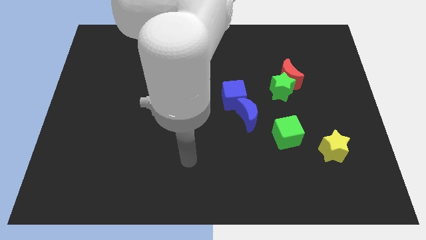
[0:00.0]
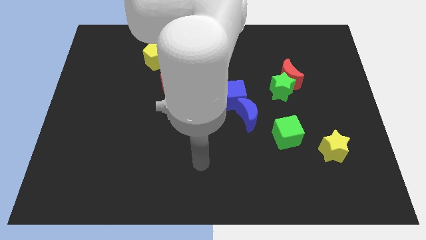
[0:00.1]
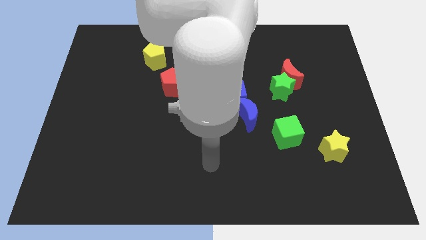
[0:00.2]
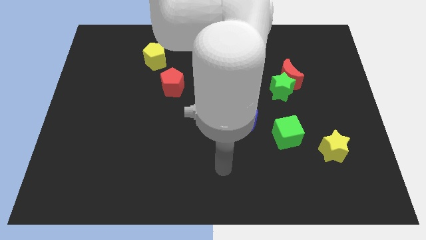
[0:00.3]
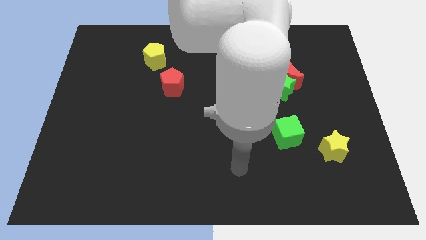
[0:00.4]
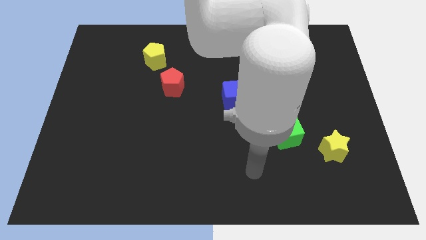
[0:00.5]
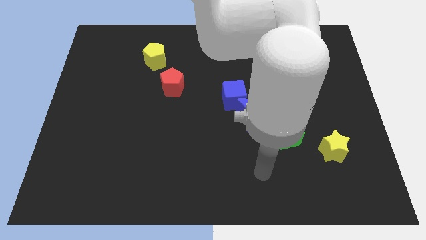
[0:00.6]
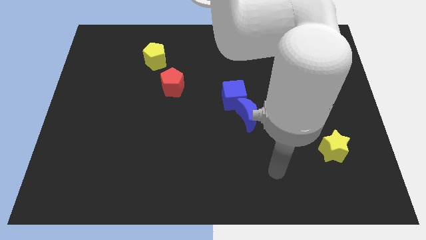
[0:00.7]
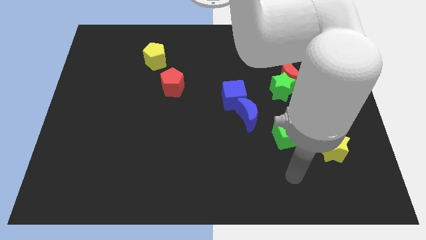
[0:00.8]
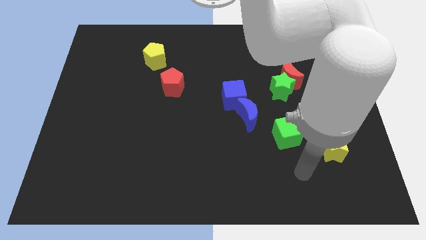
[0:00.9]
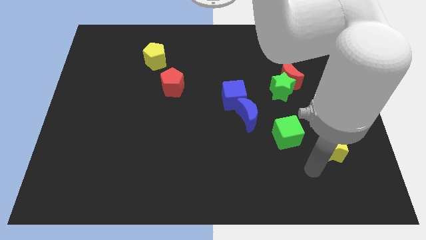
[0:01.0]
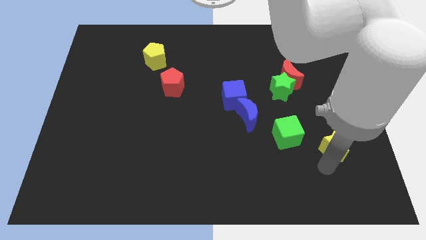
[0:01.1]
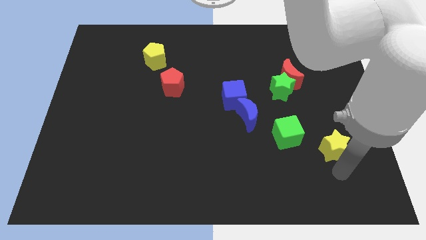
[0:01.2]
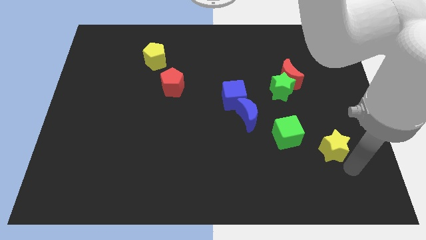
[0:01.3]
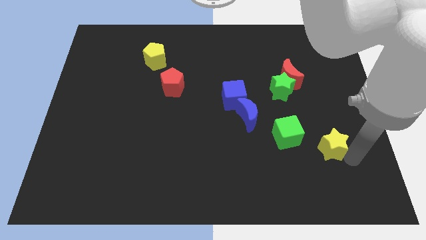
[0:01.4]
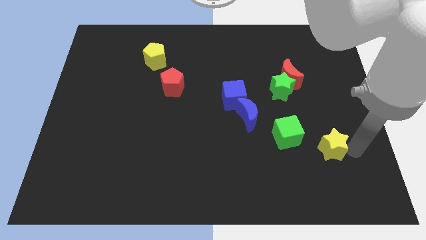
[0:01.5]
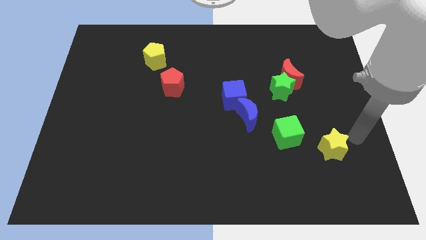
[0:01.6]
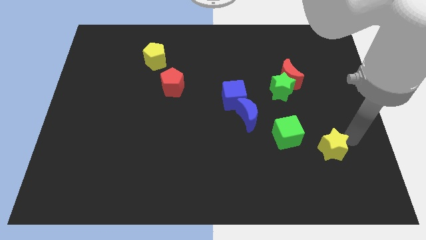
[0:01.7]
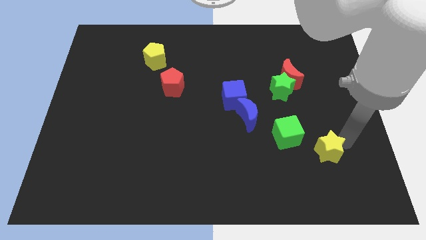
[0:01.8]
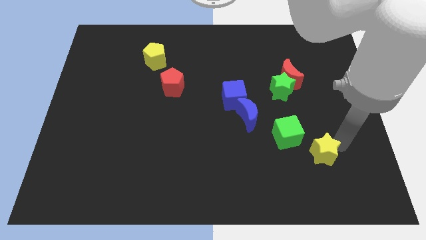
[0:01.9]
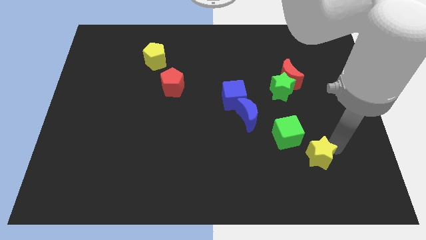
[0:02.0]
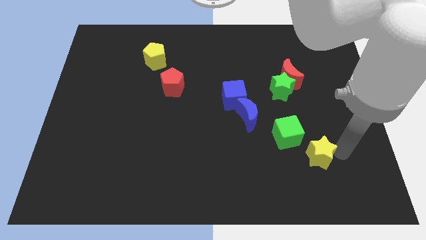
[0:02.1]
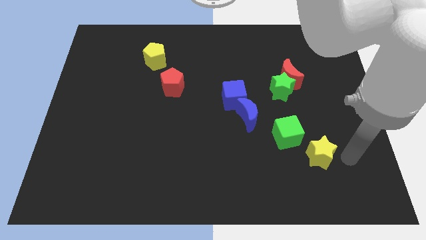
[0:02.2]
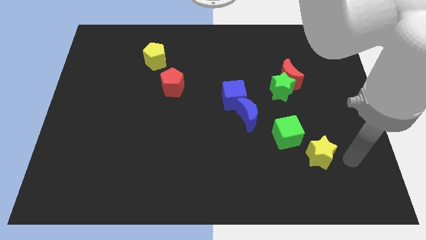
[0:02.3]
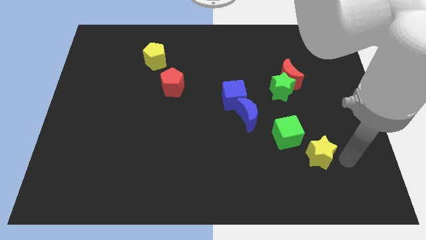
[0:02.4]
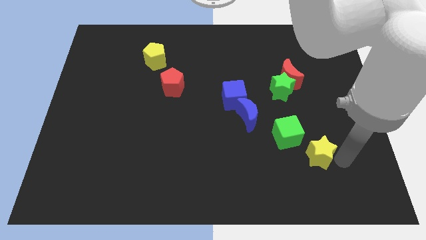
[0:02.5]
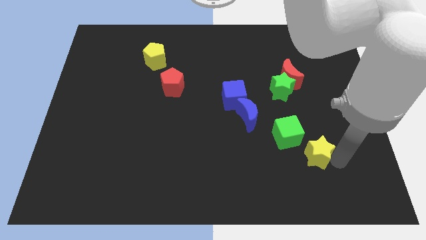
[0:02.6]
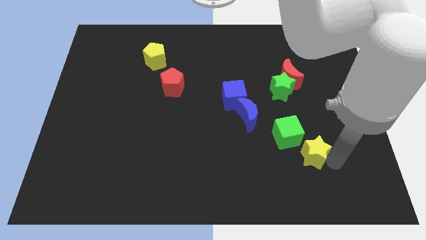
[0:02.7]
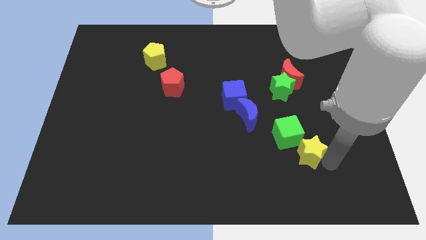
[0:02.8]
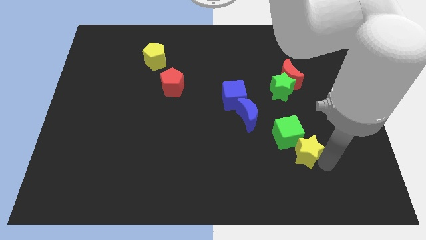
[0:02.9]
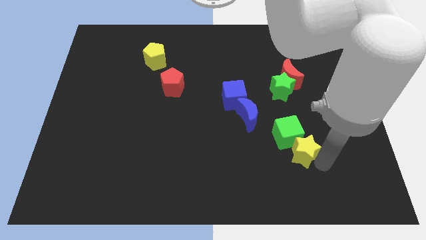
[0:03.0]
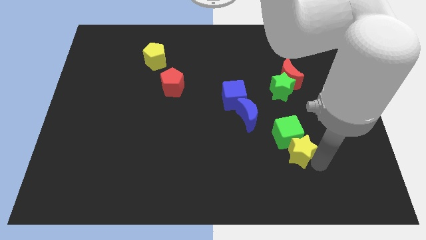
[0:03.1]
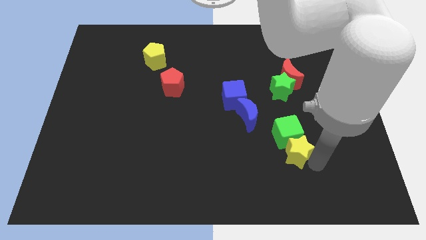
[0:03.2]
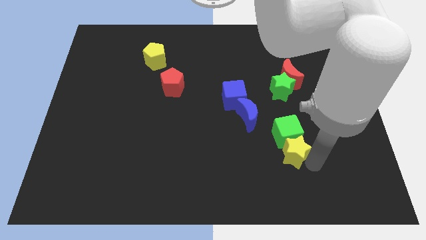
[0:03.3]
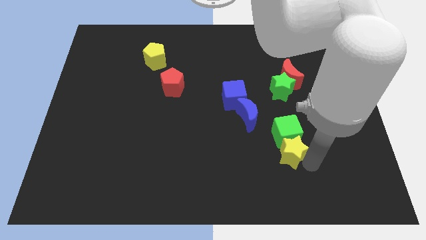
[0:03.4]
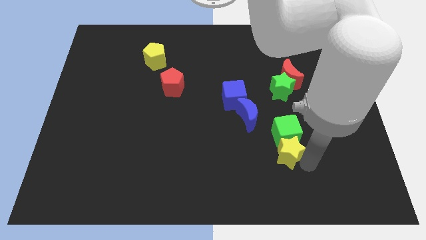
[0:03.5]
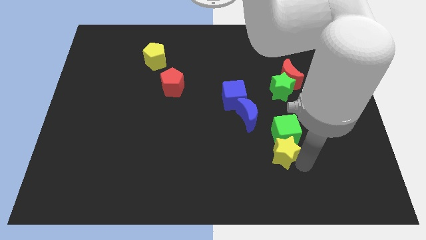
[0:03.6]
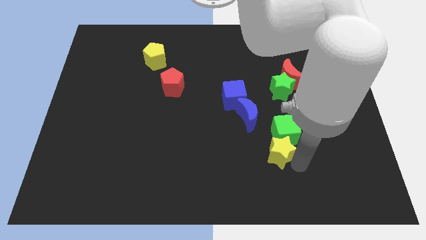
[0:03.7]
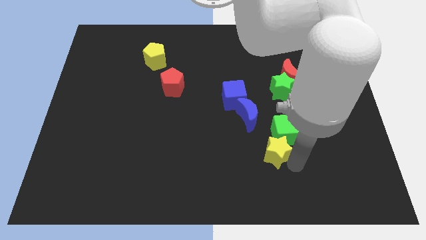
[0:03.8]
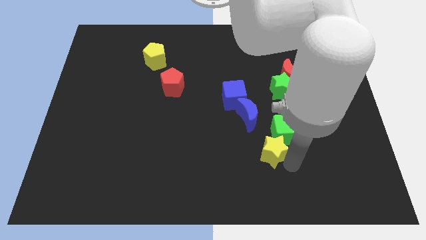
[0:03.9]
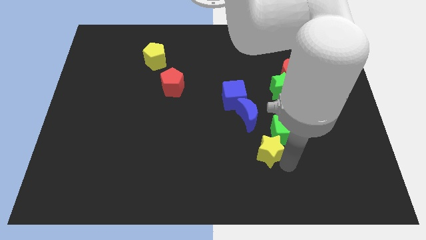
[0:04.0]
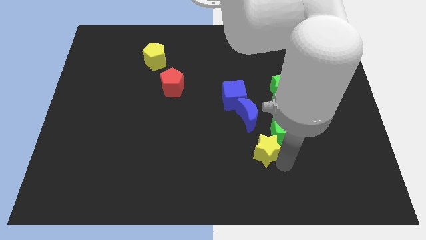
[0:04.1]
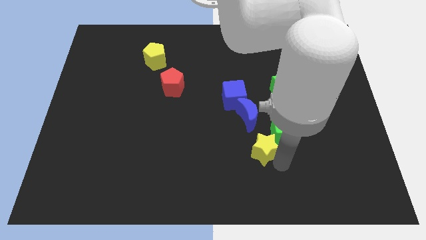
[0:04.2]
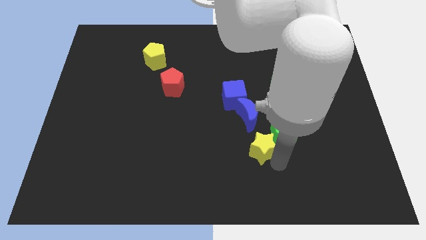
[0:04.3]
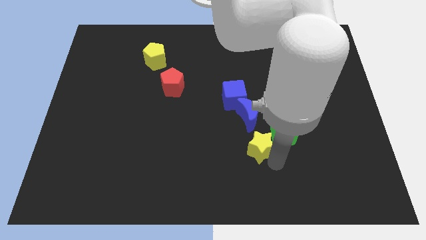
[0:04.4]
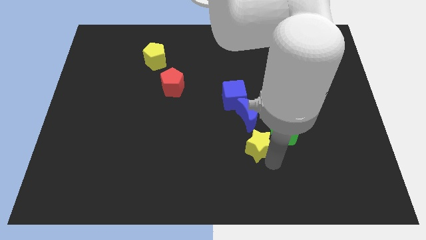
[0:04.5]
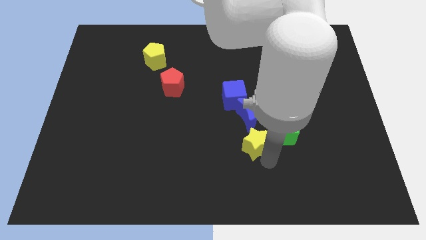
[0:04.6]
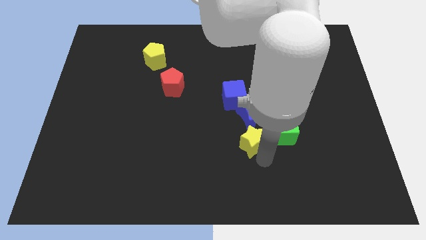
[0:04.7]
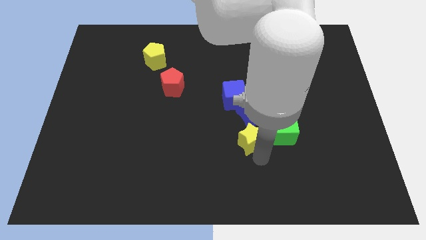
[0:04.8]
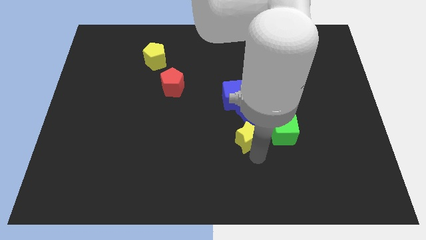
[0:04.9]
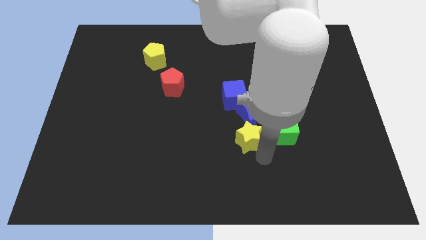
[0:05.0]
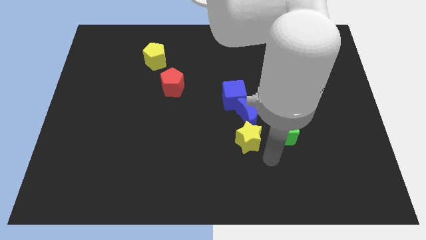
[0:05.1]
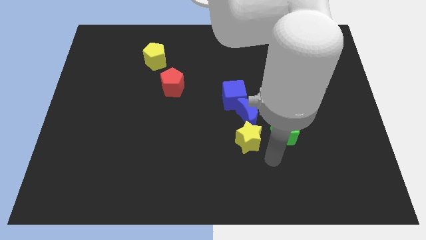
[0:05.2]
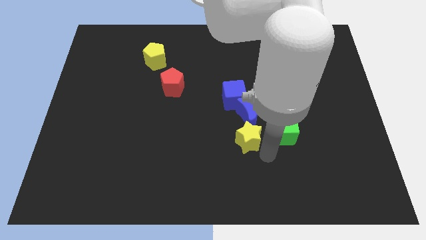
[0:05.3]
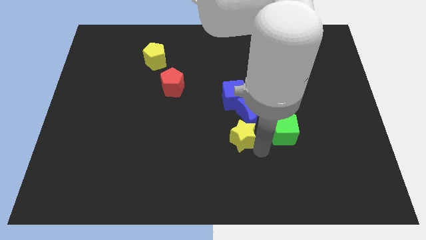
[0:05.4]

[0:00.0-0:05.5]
push the yellow star to the middle of the board

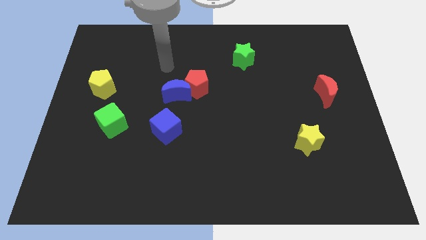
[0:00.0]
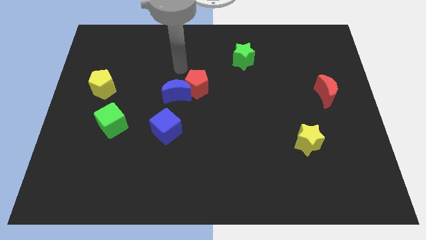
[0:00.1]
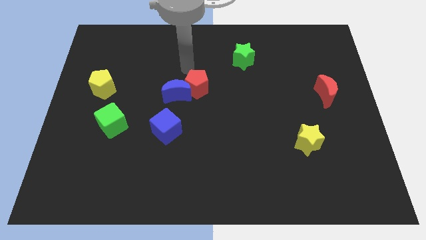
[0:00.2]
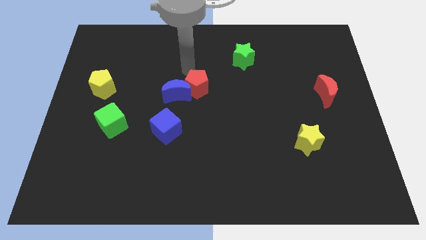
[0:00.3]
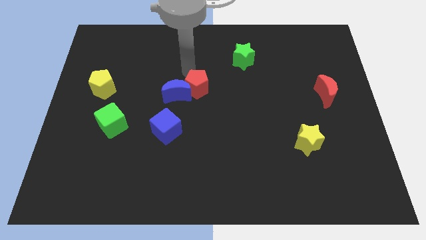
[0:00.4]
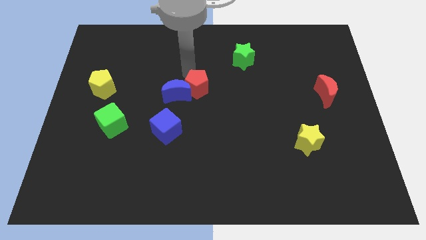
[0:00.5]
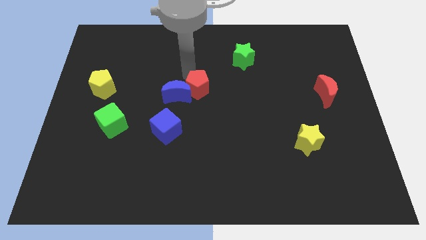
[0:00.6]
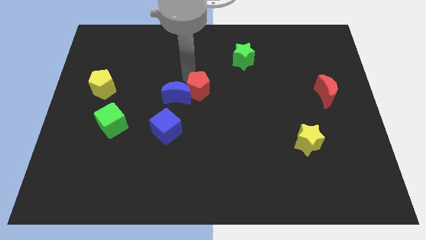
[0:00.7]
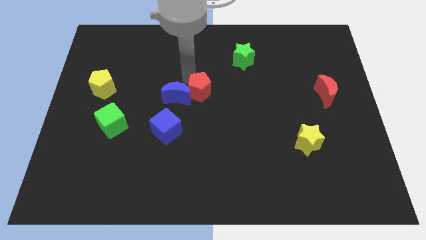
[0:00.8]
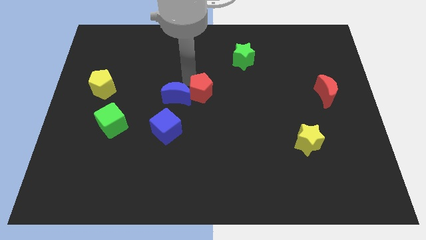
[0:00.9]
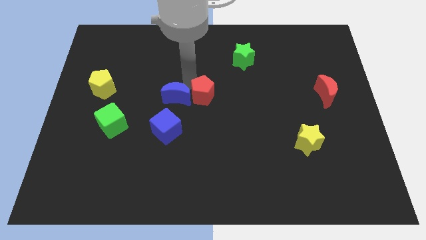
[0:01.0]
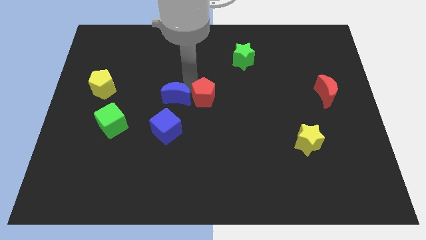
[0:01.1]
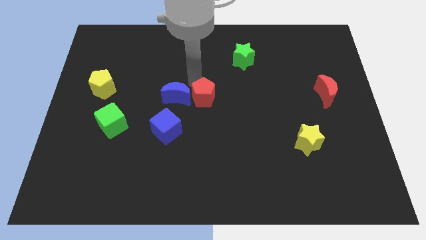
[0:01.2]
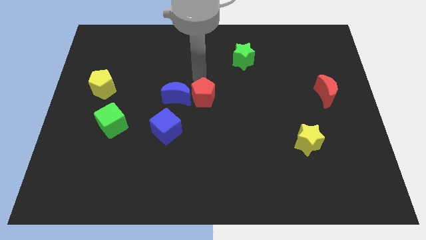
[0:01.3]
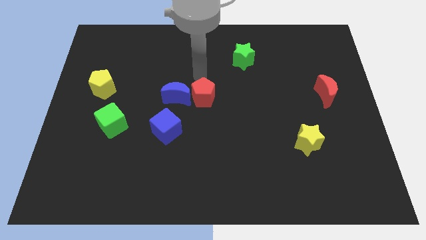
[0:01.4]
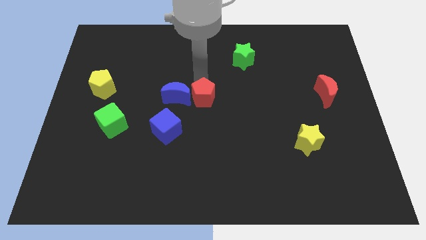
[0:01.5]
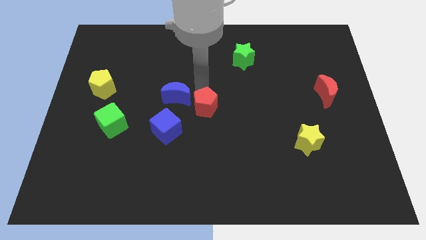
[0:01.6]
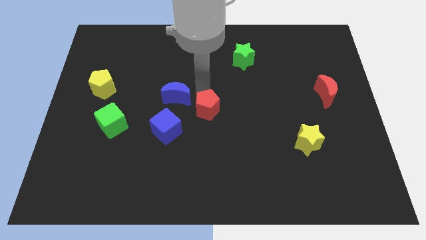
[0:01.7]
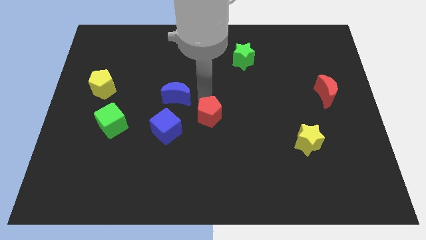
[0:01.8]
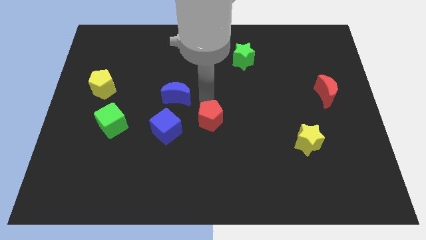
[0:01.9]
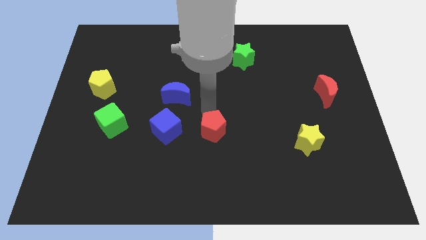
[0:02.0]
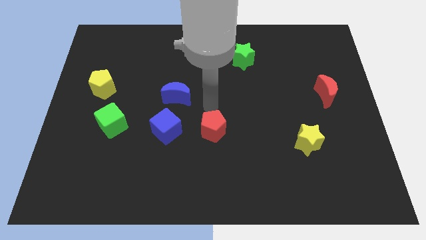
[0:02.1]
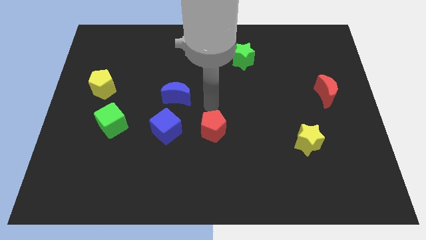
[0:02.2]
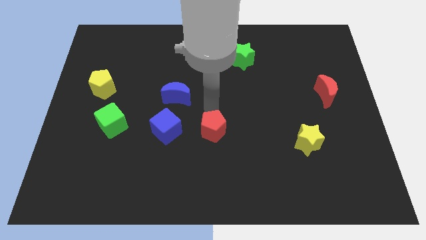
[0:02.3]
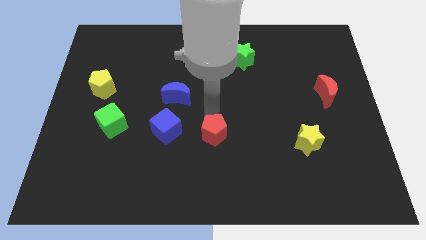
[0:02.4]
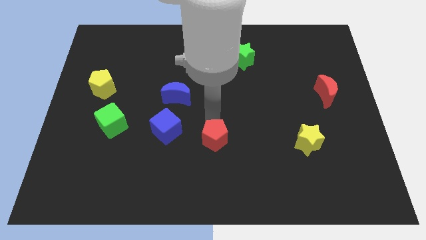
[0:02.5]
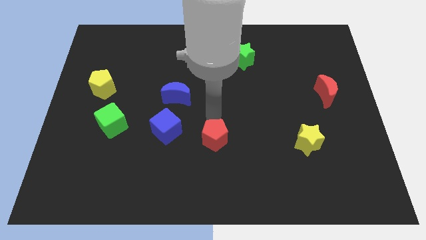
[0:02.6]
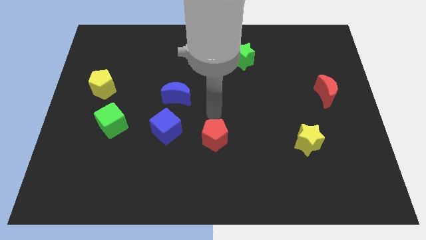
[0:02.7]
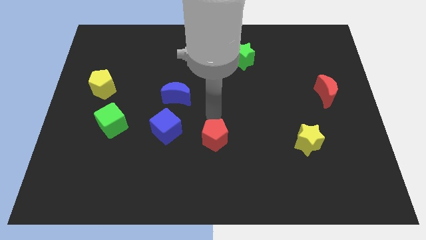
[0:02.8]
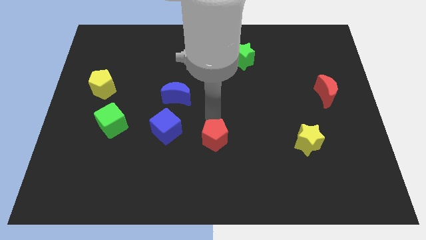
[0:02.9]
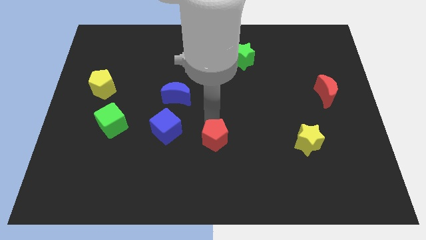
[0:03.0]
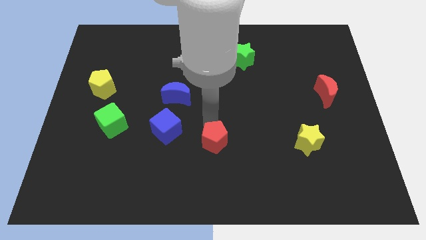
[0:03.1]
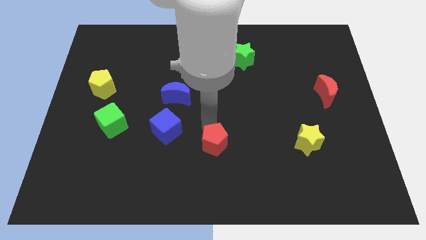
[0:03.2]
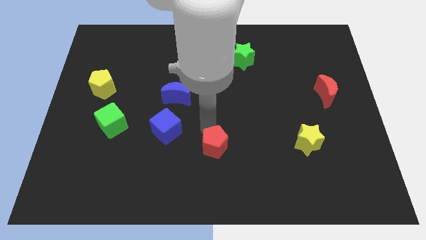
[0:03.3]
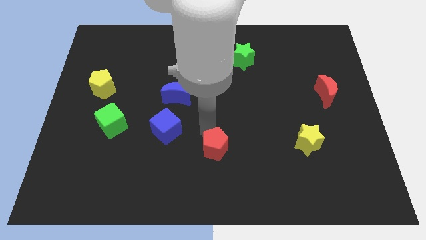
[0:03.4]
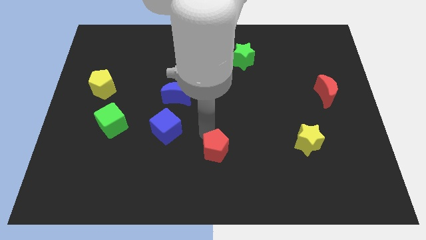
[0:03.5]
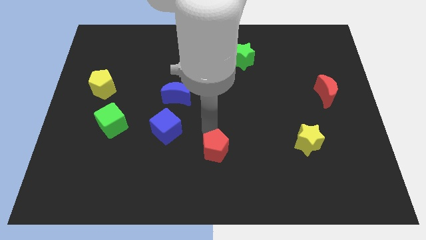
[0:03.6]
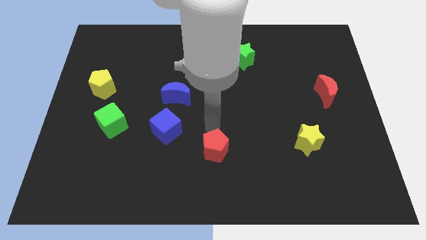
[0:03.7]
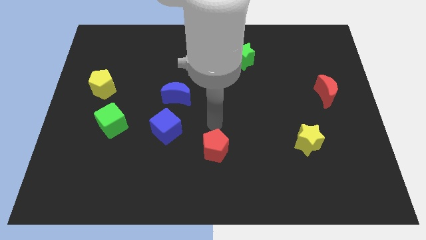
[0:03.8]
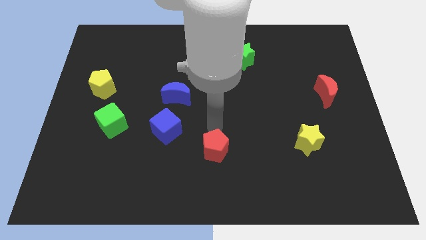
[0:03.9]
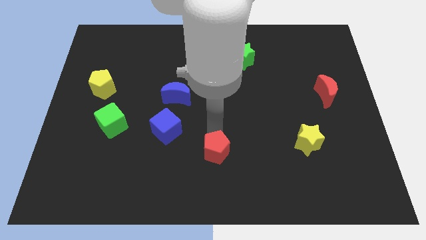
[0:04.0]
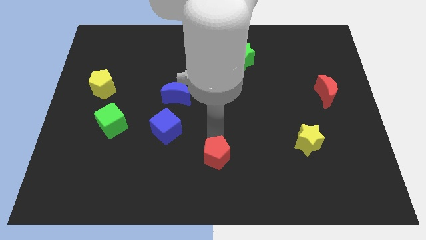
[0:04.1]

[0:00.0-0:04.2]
slide the red pentagon to the bottom
